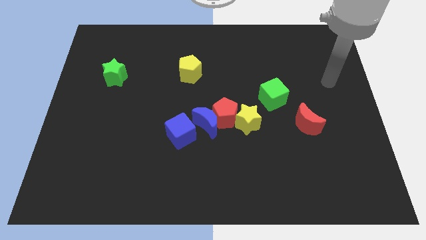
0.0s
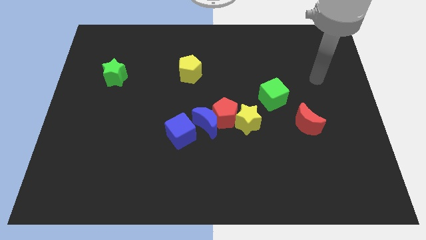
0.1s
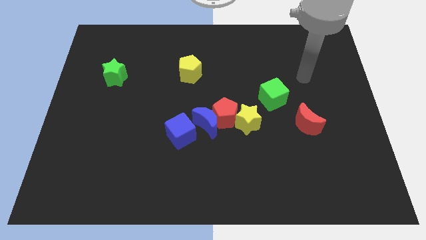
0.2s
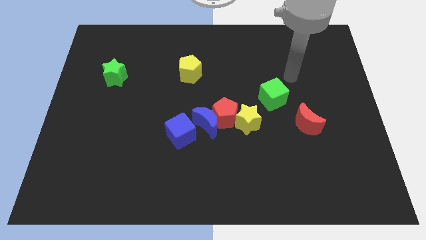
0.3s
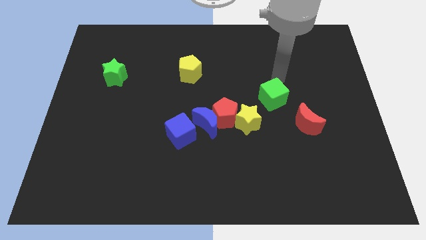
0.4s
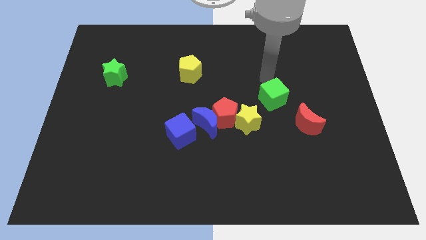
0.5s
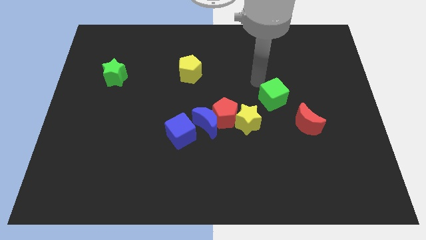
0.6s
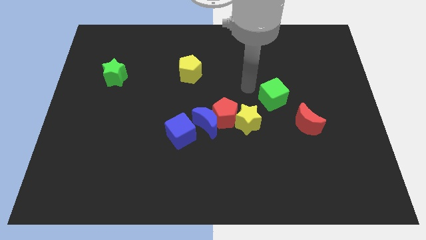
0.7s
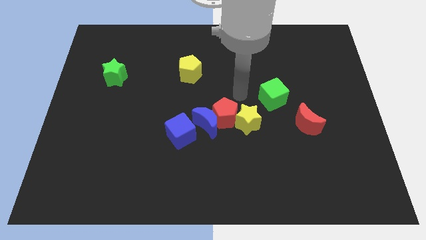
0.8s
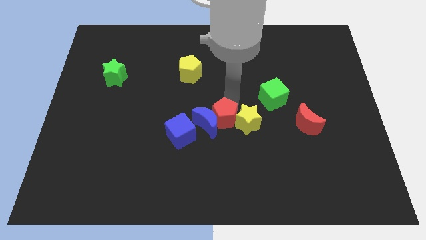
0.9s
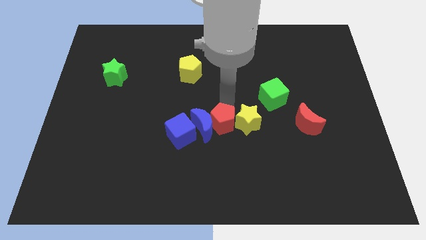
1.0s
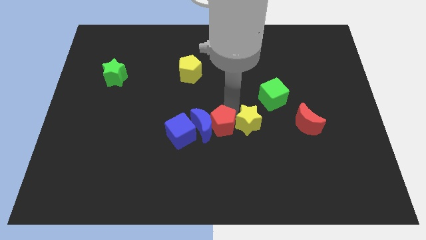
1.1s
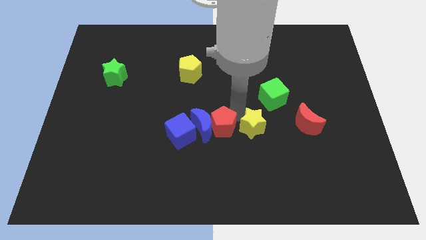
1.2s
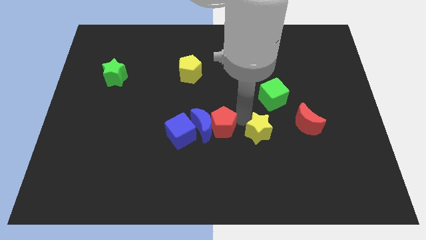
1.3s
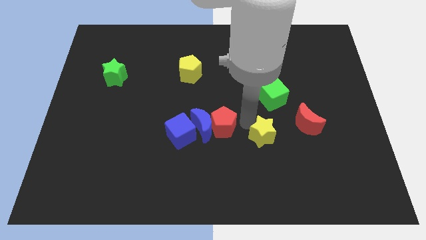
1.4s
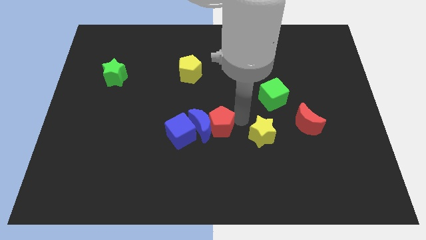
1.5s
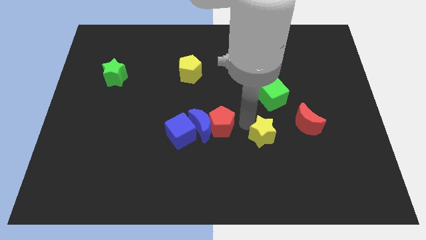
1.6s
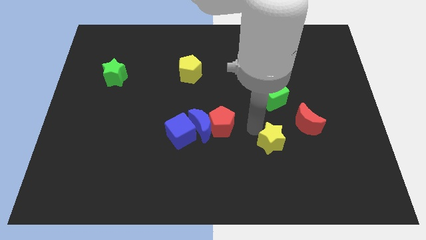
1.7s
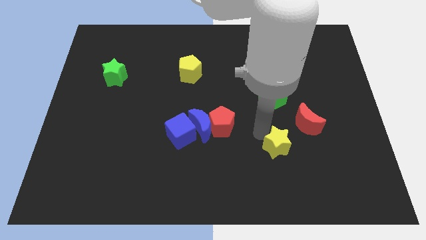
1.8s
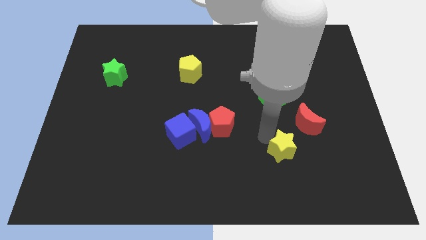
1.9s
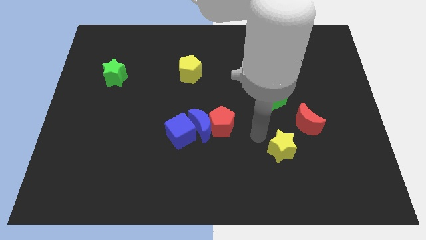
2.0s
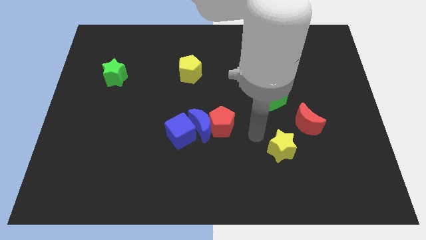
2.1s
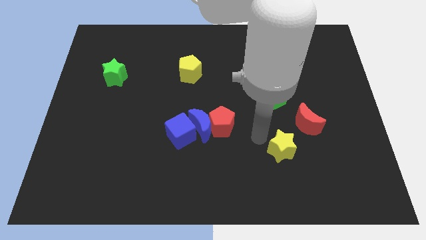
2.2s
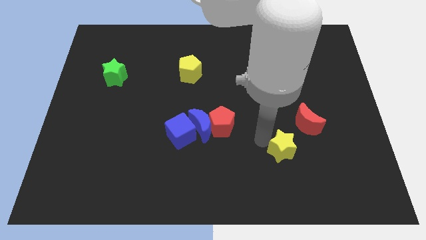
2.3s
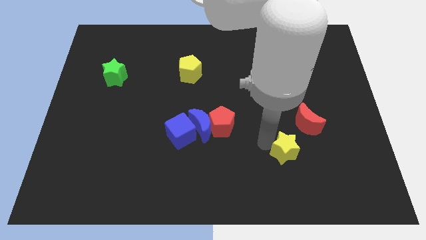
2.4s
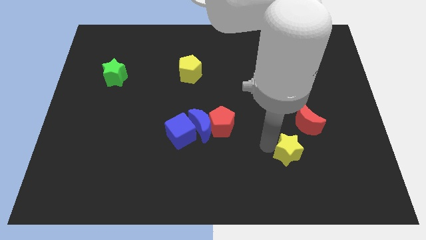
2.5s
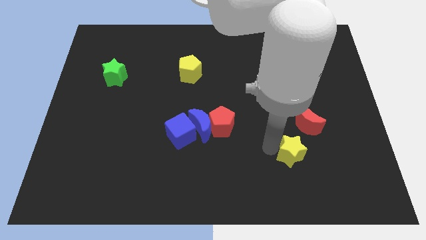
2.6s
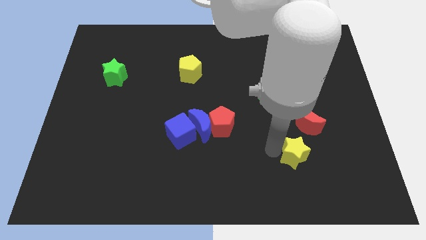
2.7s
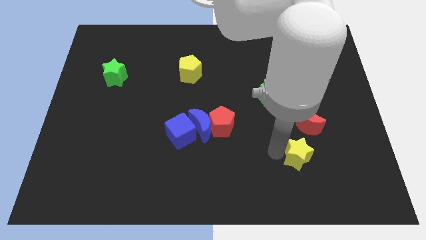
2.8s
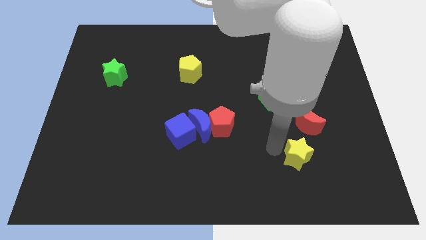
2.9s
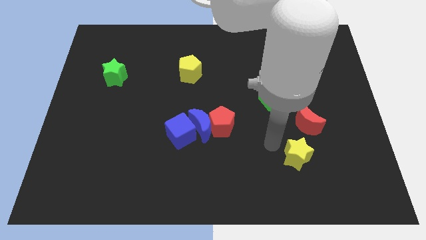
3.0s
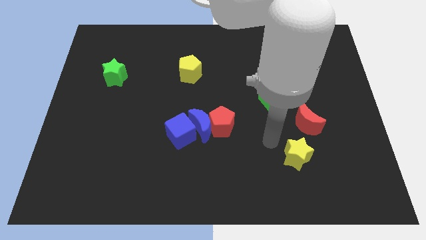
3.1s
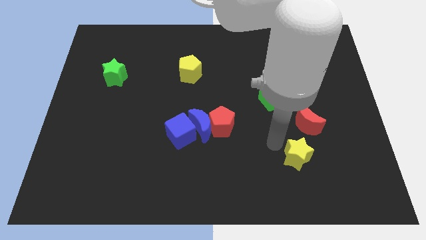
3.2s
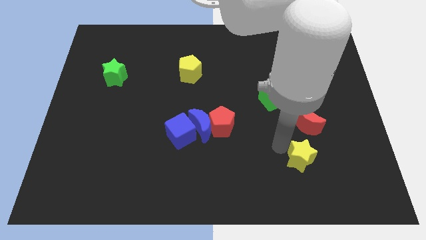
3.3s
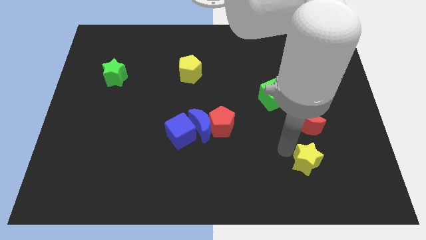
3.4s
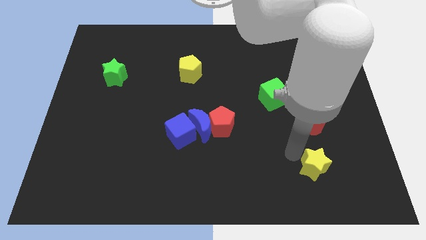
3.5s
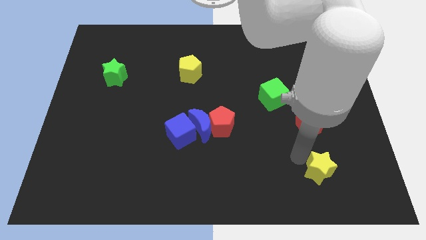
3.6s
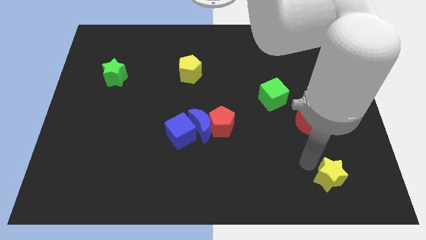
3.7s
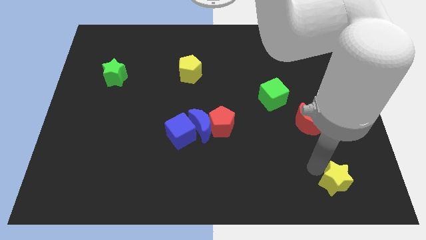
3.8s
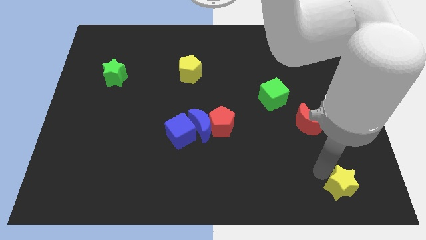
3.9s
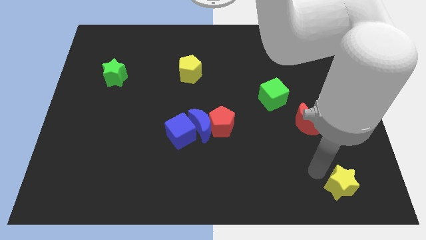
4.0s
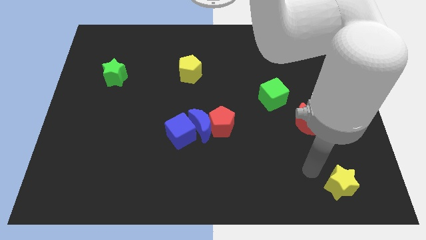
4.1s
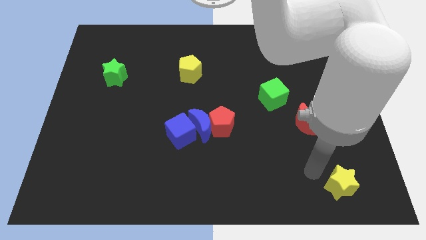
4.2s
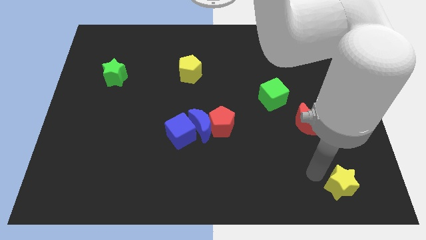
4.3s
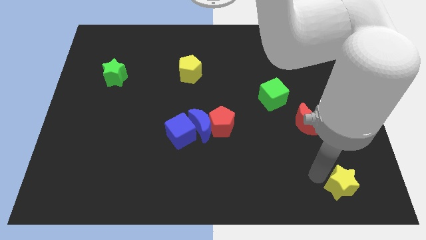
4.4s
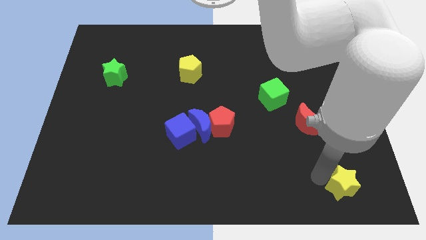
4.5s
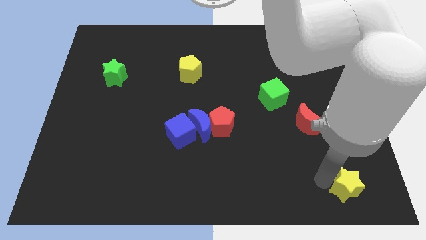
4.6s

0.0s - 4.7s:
slide the yellow star to the bottom right corner

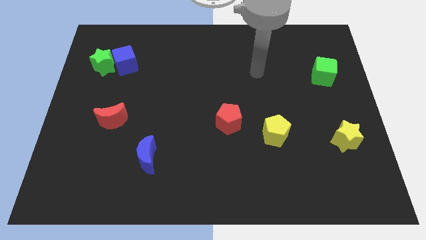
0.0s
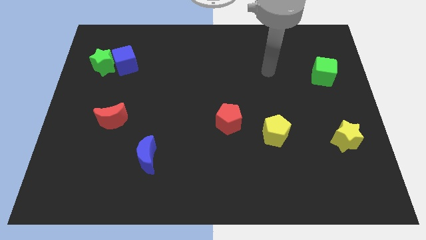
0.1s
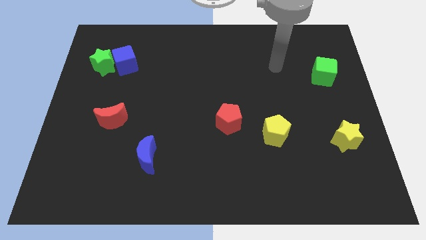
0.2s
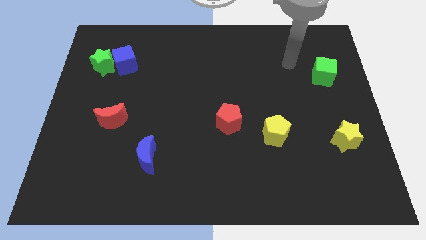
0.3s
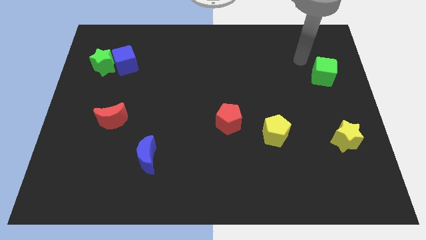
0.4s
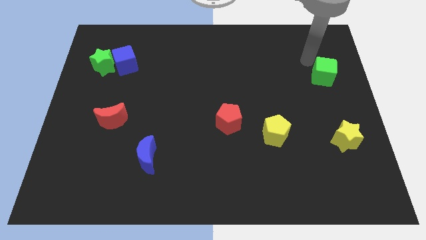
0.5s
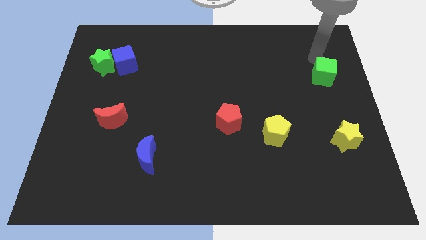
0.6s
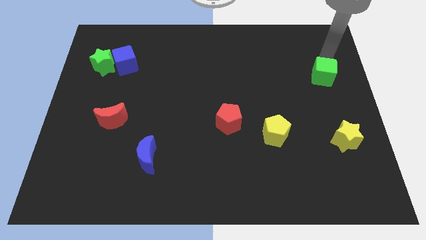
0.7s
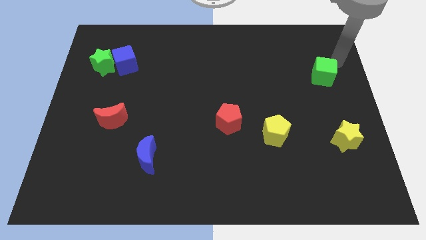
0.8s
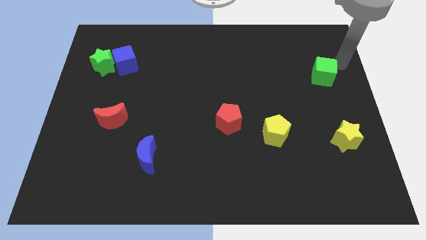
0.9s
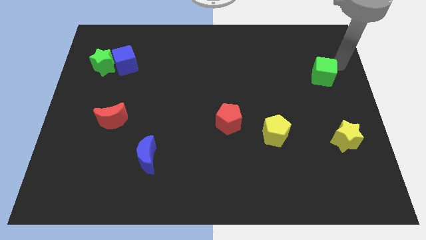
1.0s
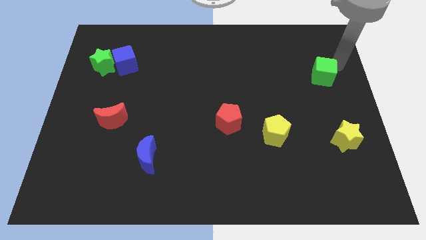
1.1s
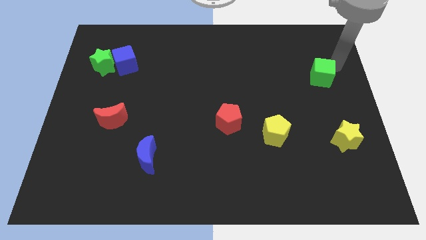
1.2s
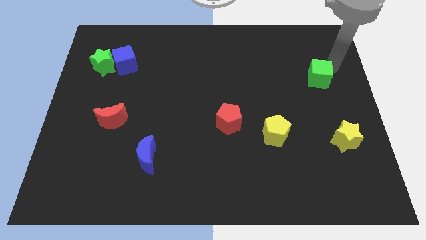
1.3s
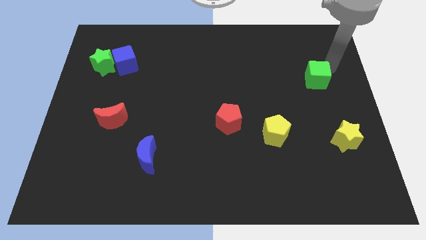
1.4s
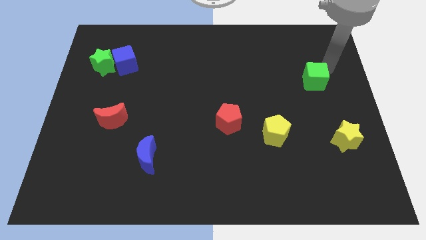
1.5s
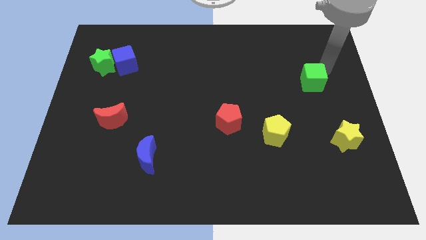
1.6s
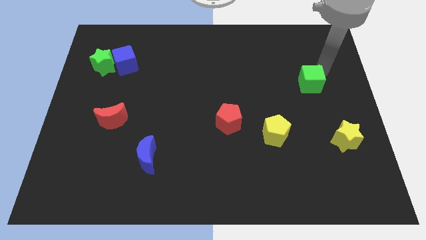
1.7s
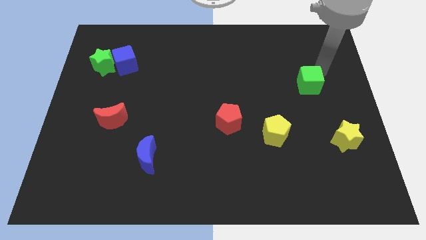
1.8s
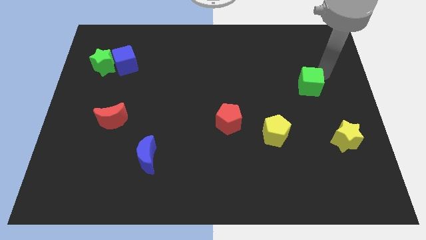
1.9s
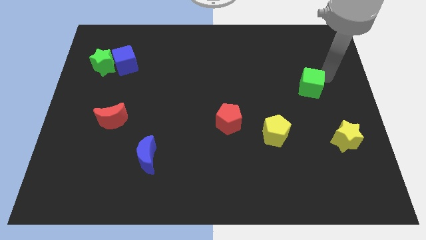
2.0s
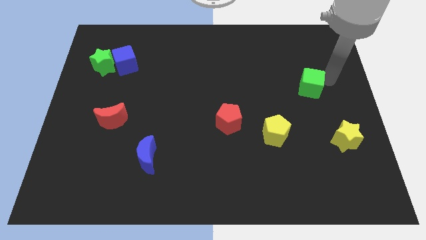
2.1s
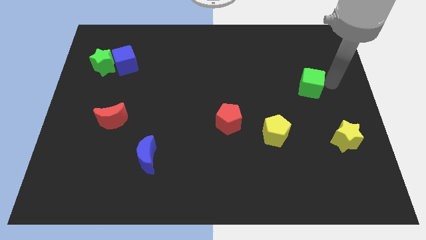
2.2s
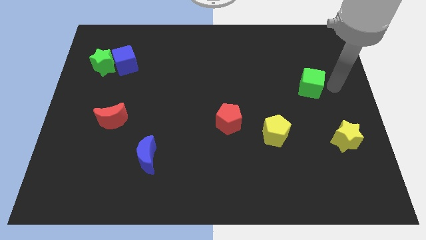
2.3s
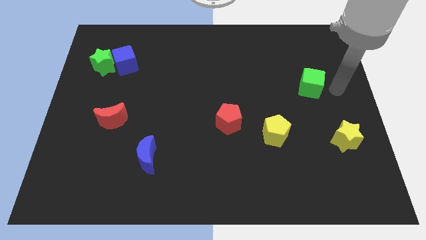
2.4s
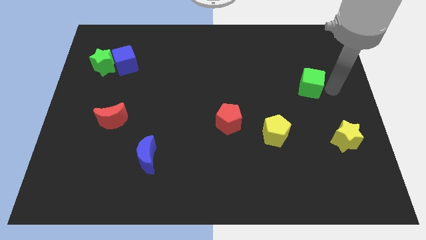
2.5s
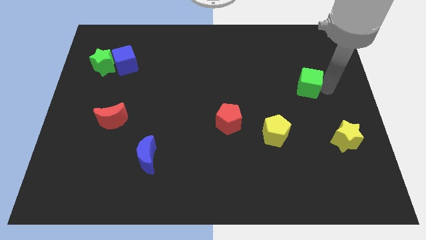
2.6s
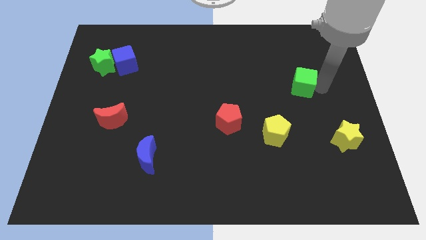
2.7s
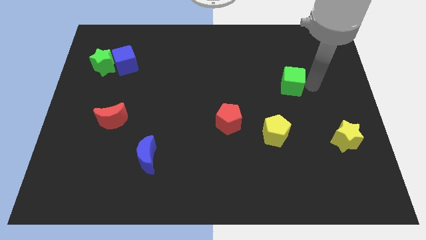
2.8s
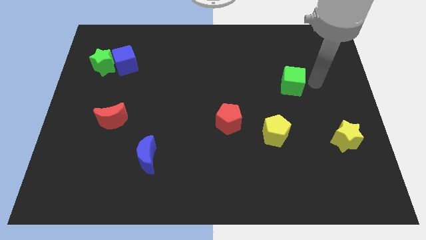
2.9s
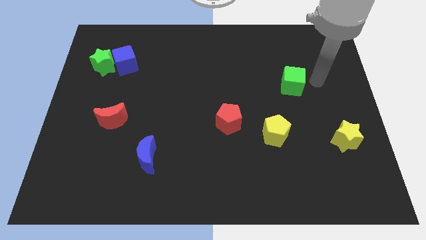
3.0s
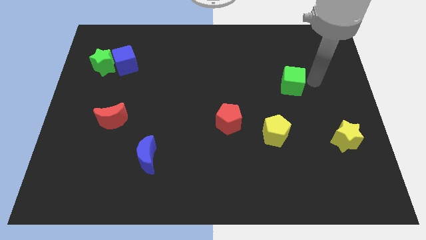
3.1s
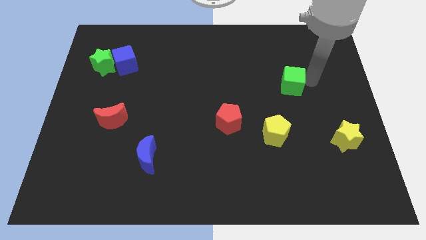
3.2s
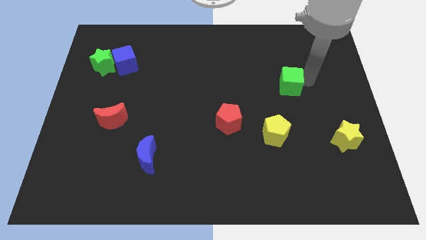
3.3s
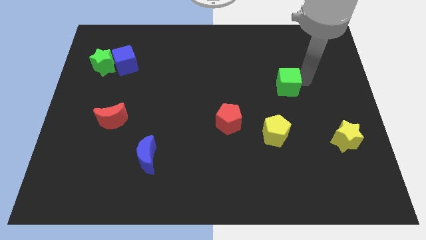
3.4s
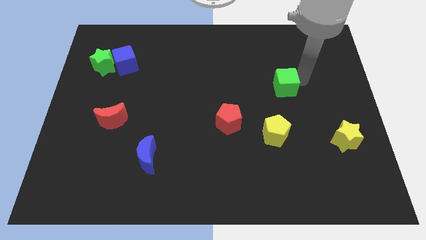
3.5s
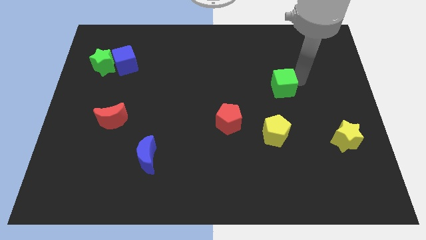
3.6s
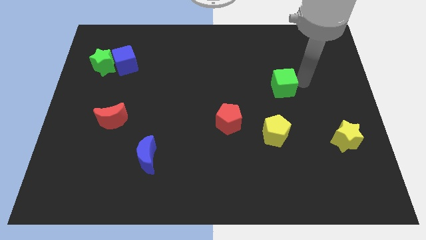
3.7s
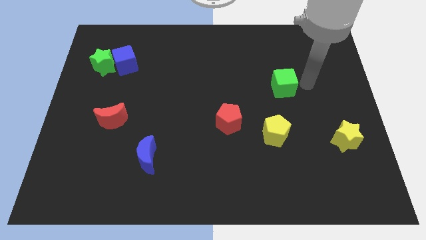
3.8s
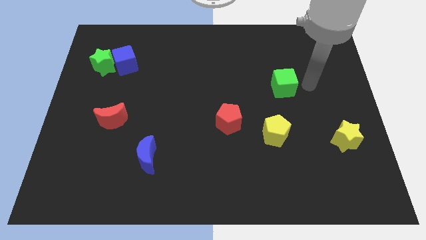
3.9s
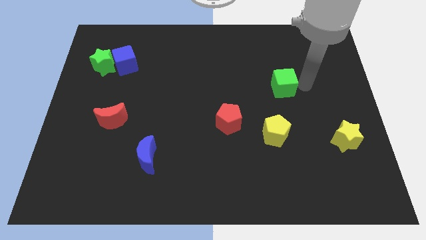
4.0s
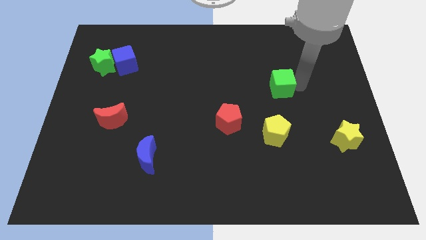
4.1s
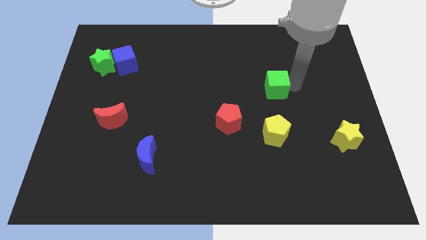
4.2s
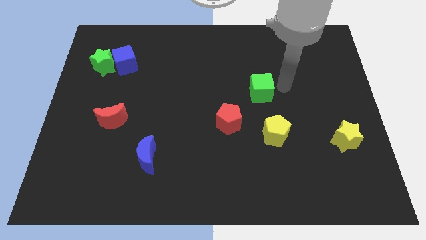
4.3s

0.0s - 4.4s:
push the green cube to the center of the board
